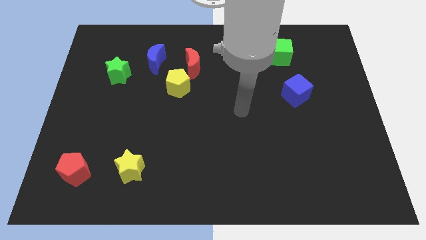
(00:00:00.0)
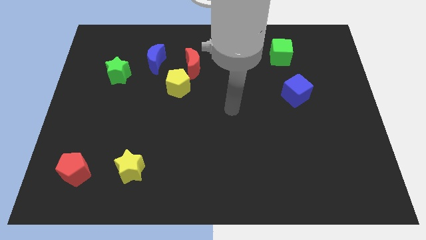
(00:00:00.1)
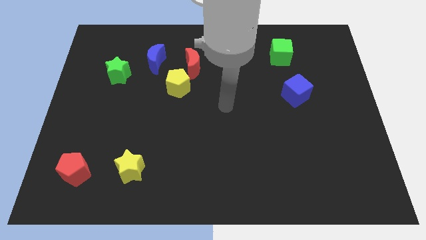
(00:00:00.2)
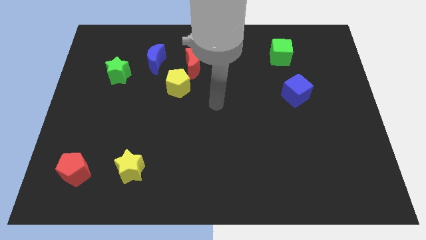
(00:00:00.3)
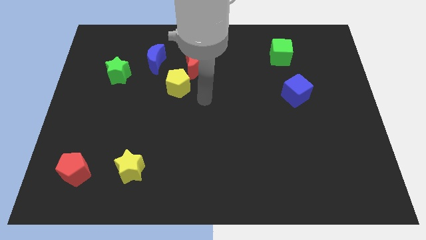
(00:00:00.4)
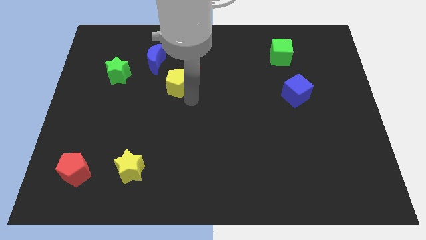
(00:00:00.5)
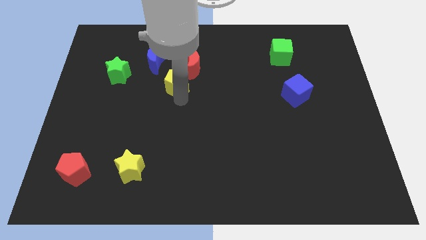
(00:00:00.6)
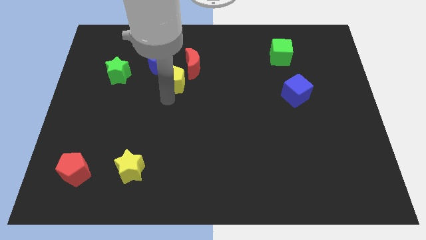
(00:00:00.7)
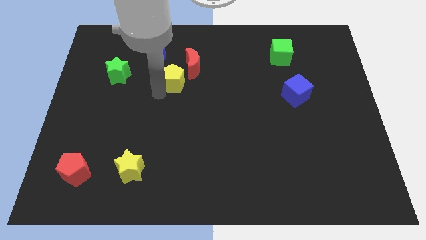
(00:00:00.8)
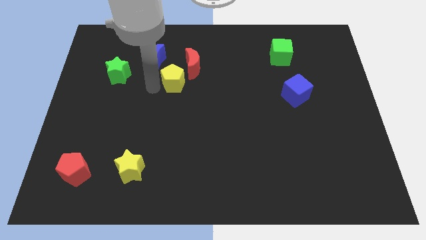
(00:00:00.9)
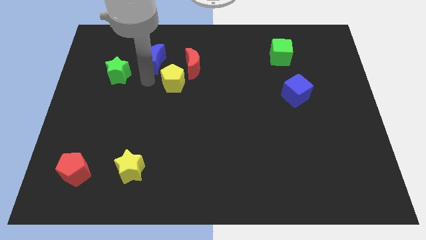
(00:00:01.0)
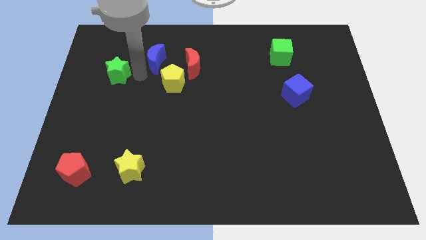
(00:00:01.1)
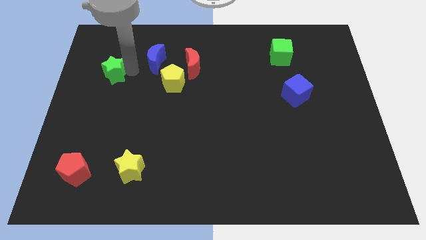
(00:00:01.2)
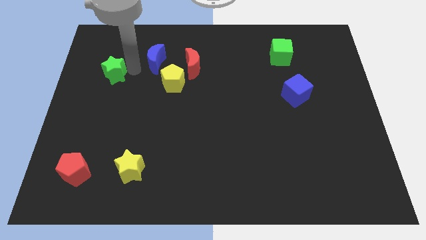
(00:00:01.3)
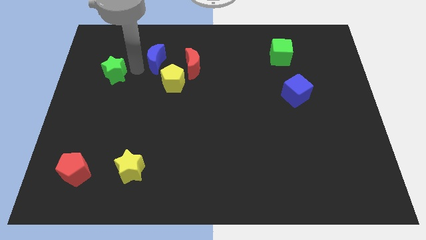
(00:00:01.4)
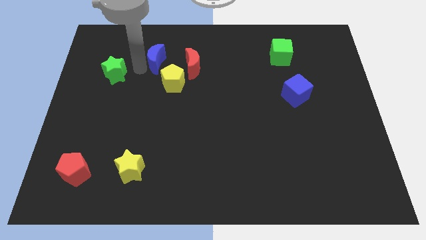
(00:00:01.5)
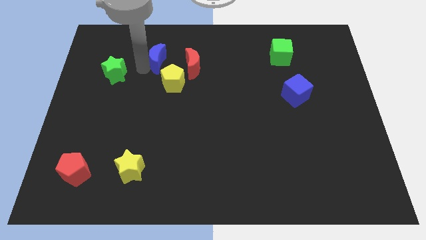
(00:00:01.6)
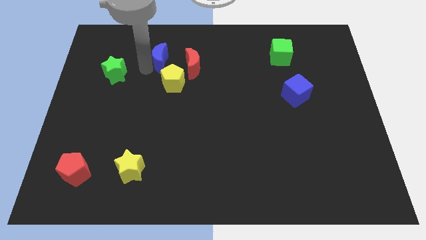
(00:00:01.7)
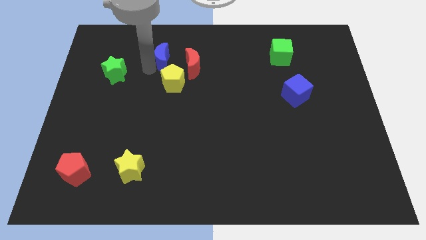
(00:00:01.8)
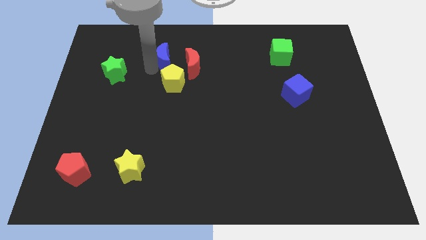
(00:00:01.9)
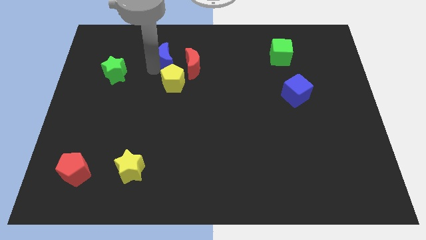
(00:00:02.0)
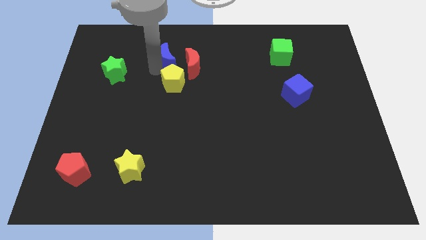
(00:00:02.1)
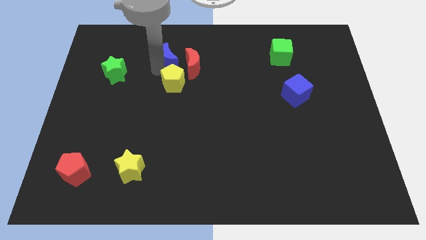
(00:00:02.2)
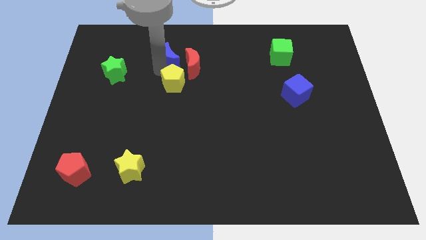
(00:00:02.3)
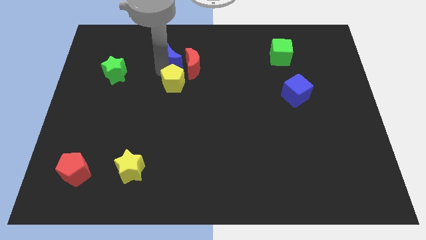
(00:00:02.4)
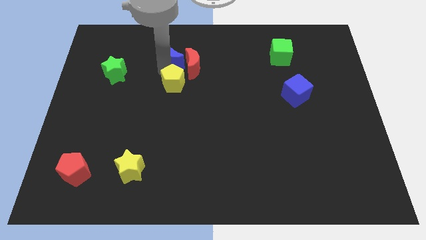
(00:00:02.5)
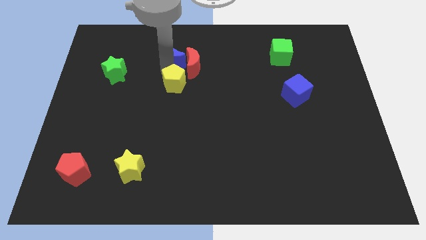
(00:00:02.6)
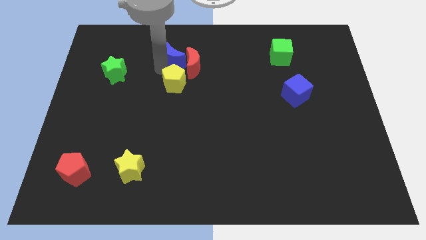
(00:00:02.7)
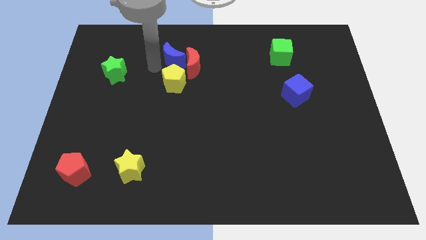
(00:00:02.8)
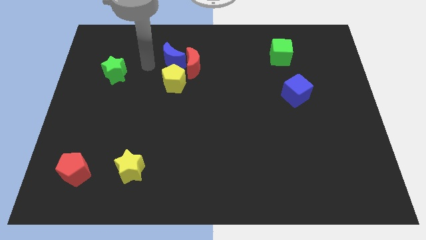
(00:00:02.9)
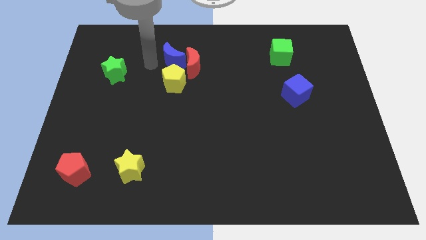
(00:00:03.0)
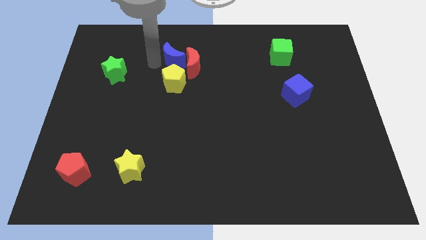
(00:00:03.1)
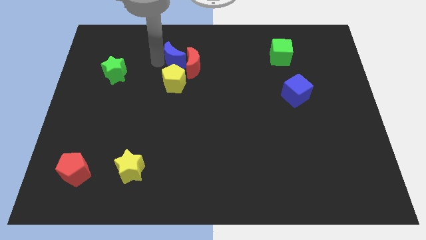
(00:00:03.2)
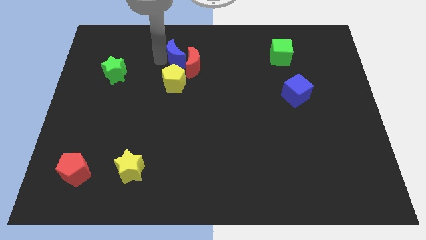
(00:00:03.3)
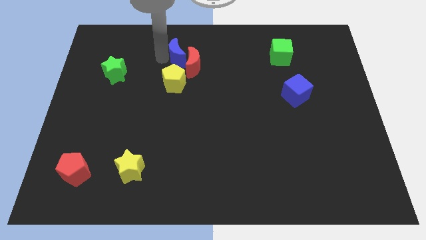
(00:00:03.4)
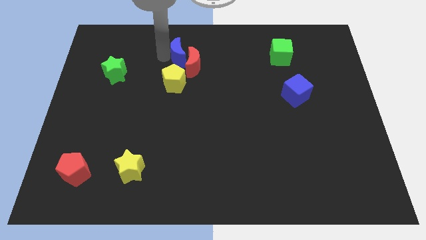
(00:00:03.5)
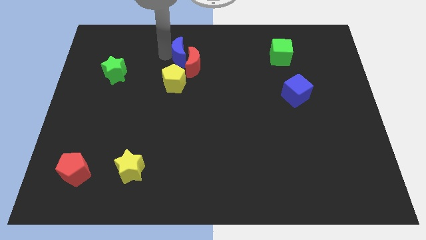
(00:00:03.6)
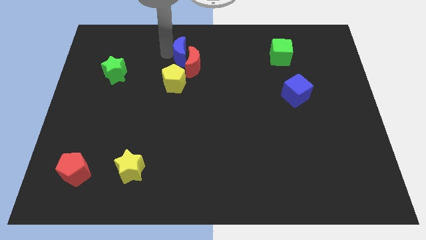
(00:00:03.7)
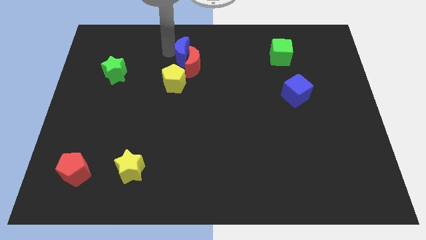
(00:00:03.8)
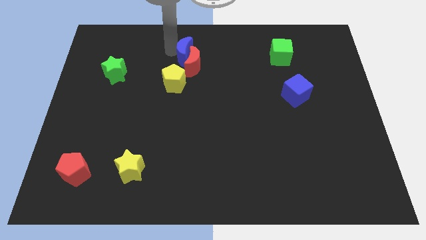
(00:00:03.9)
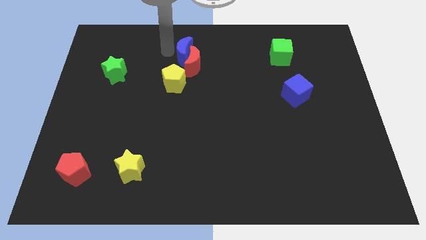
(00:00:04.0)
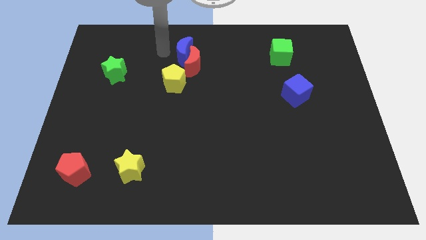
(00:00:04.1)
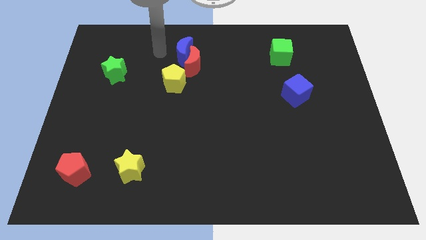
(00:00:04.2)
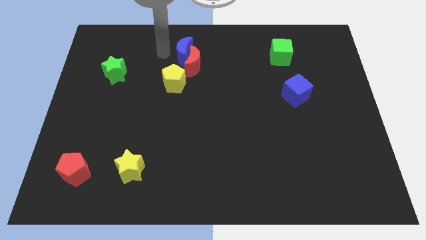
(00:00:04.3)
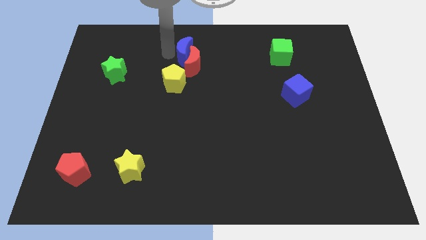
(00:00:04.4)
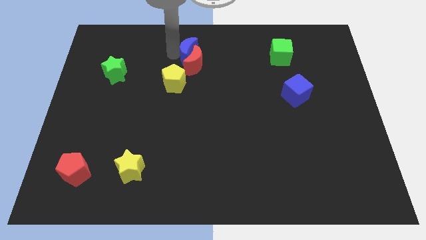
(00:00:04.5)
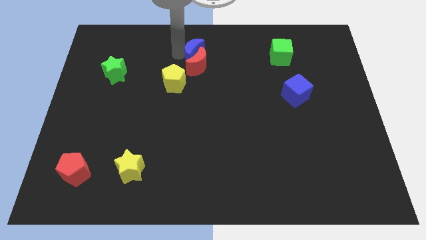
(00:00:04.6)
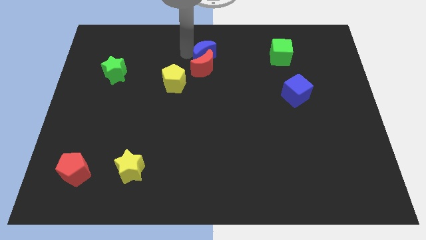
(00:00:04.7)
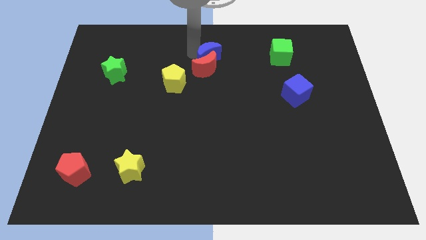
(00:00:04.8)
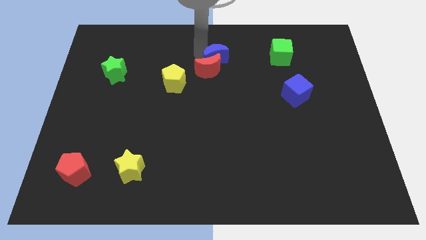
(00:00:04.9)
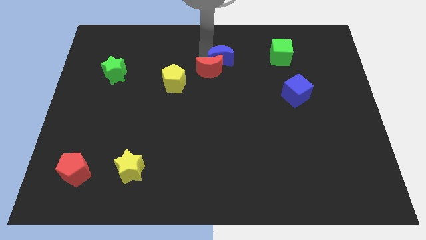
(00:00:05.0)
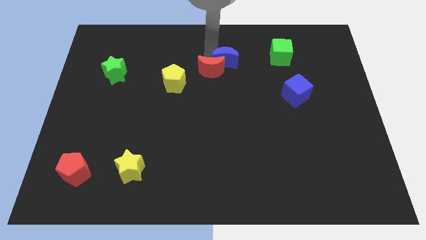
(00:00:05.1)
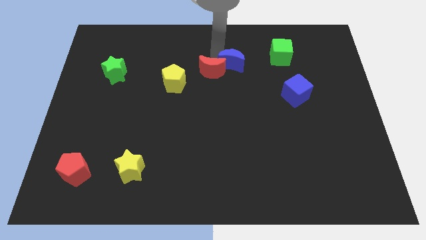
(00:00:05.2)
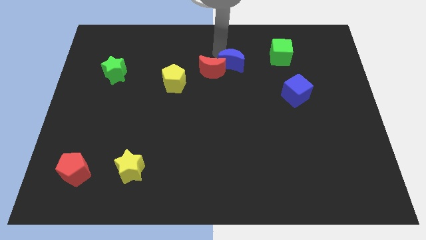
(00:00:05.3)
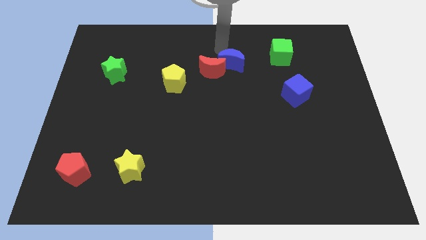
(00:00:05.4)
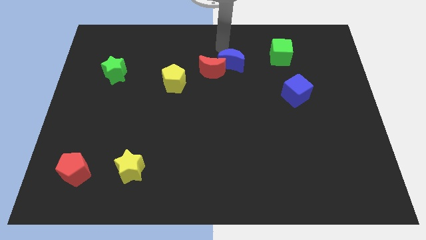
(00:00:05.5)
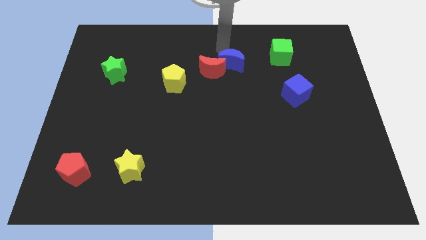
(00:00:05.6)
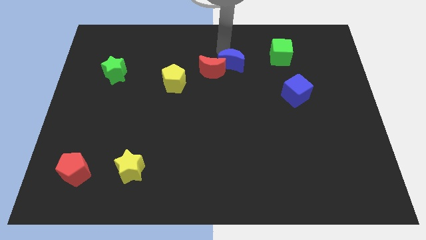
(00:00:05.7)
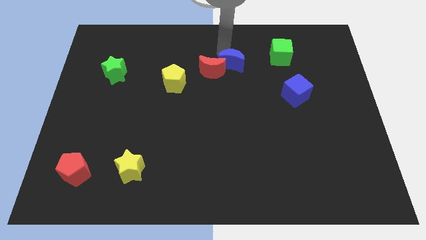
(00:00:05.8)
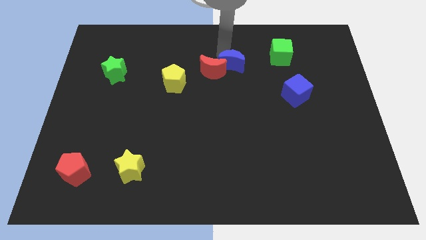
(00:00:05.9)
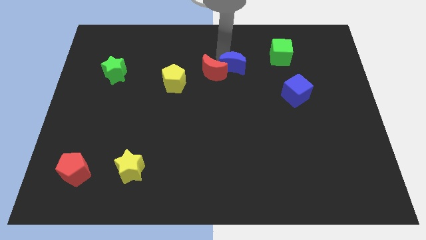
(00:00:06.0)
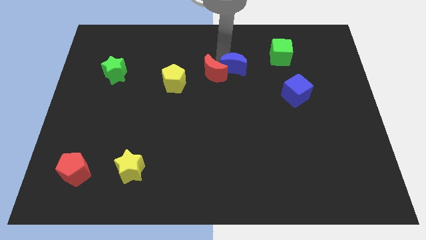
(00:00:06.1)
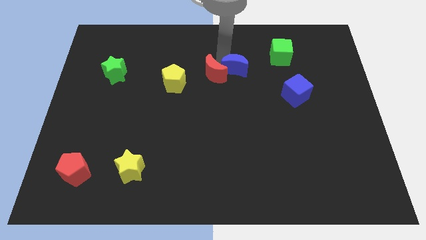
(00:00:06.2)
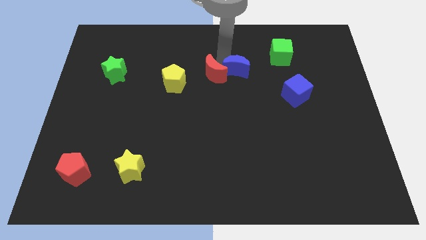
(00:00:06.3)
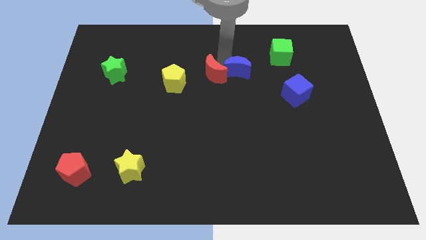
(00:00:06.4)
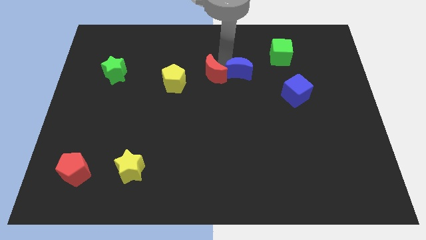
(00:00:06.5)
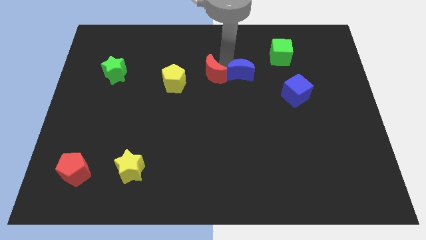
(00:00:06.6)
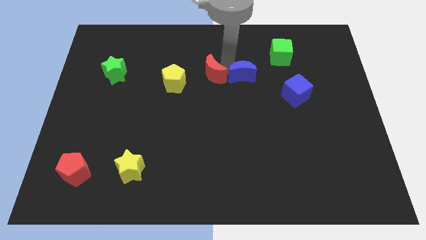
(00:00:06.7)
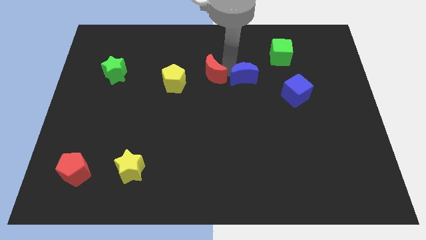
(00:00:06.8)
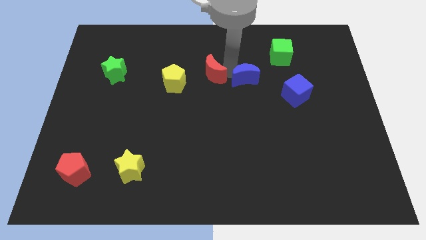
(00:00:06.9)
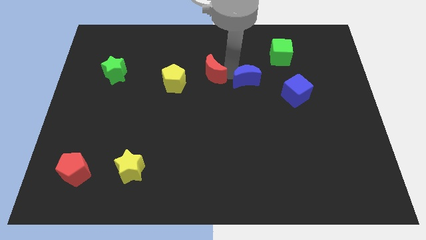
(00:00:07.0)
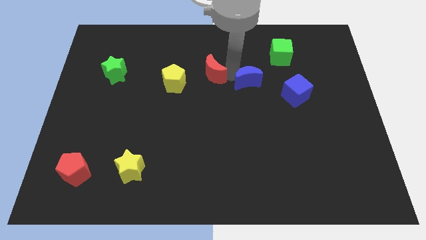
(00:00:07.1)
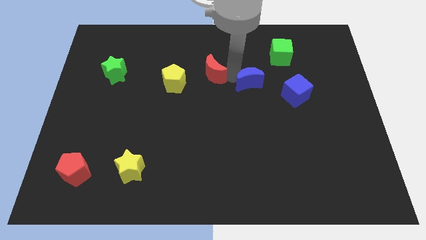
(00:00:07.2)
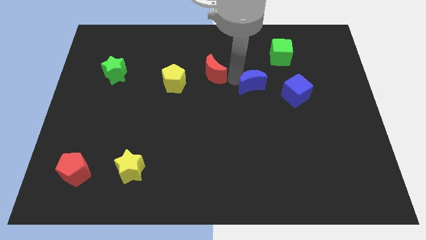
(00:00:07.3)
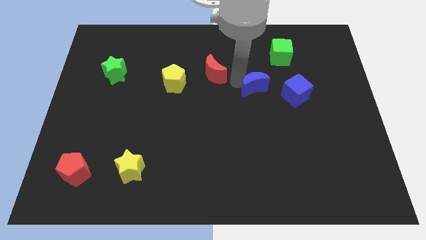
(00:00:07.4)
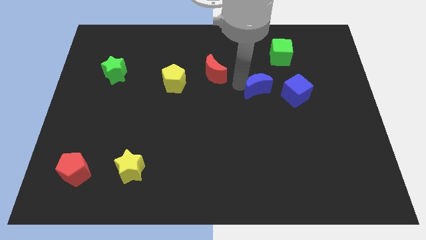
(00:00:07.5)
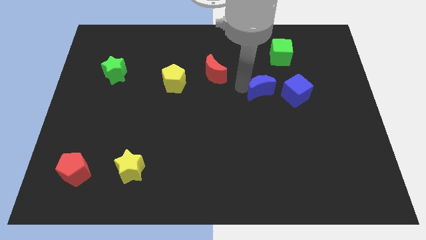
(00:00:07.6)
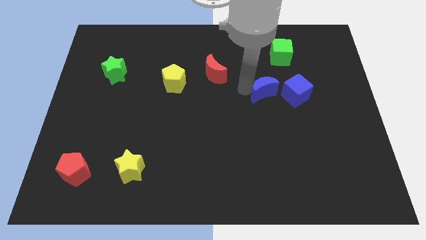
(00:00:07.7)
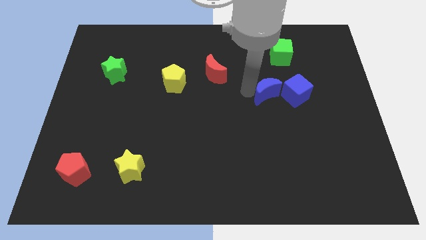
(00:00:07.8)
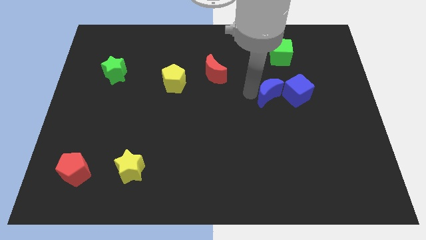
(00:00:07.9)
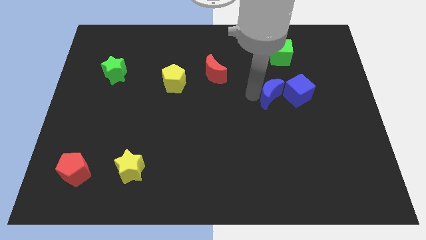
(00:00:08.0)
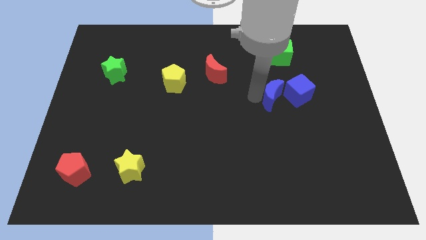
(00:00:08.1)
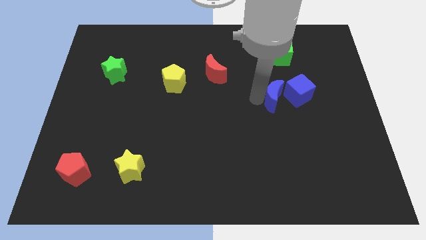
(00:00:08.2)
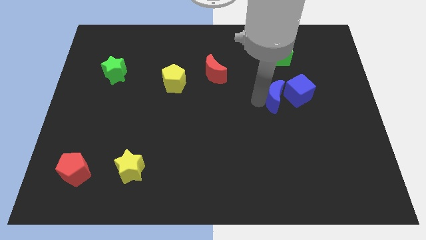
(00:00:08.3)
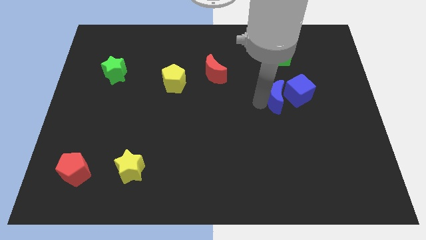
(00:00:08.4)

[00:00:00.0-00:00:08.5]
push the blue moon close to the blue cube
